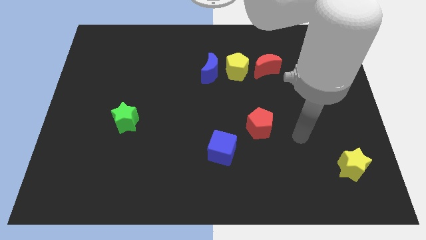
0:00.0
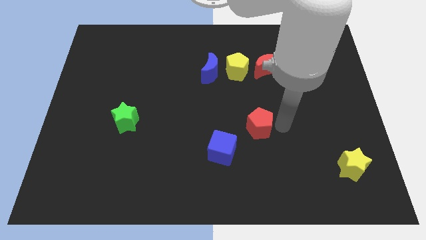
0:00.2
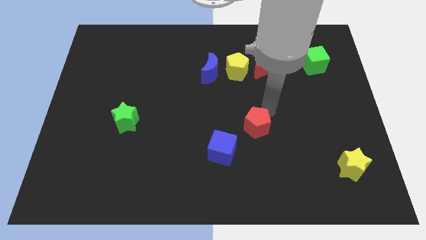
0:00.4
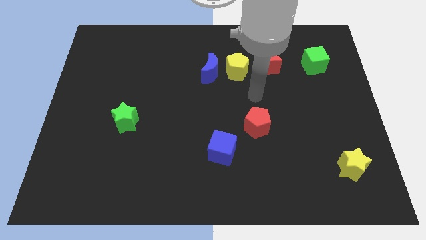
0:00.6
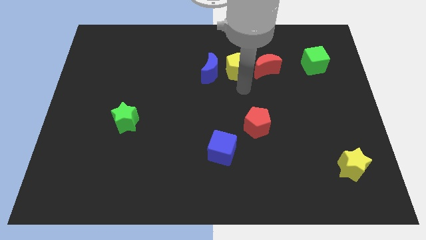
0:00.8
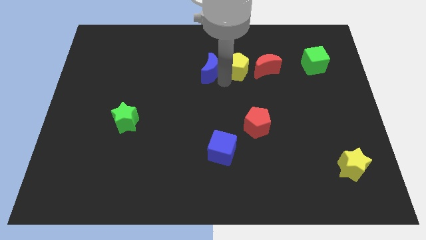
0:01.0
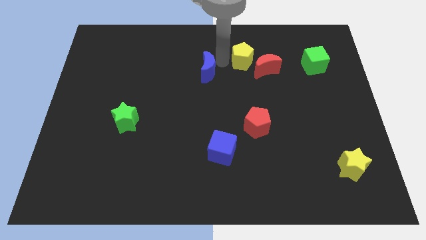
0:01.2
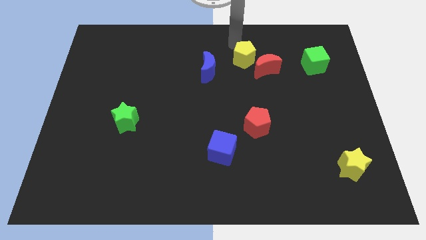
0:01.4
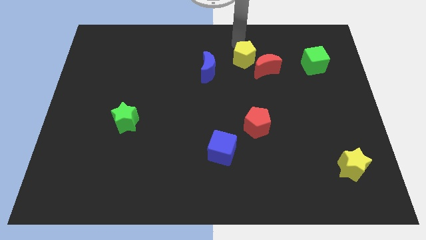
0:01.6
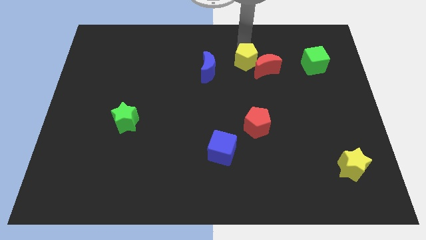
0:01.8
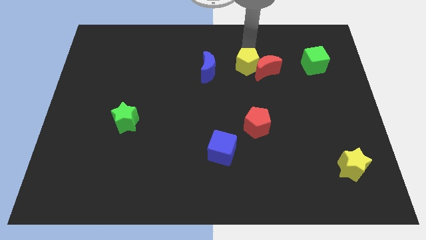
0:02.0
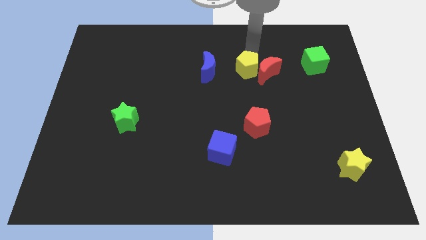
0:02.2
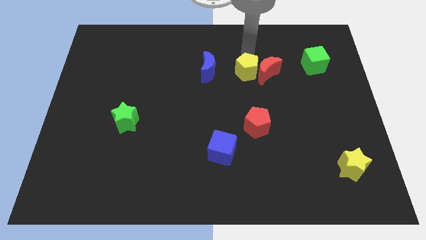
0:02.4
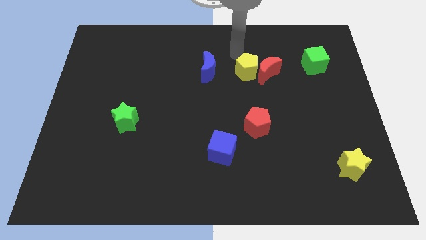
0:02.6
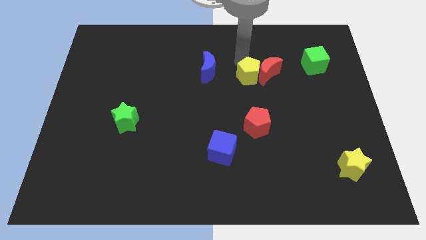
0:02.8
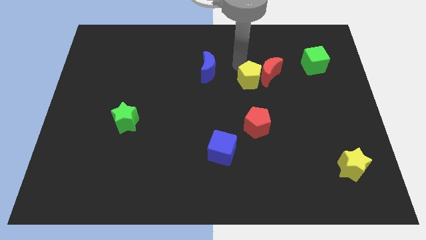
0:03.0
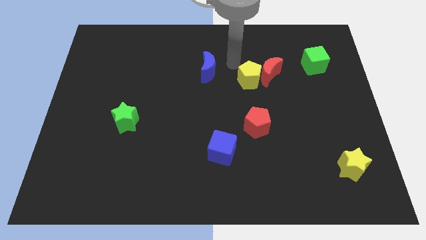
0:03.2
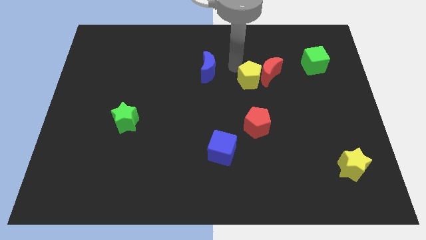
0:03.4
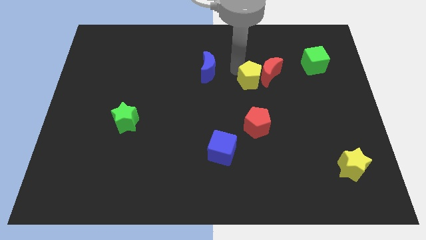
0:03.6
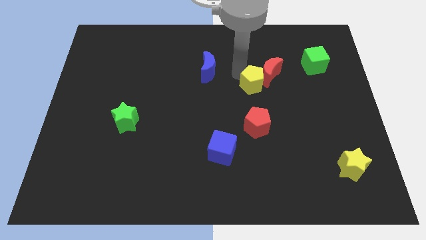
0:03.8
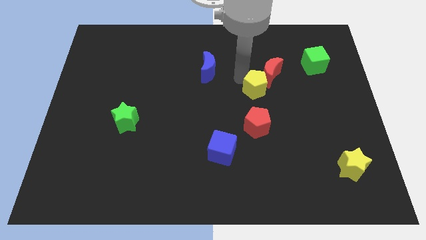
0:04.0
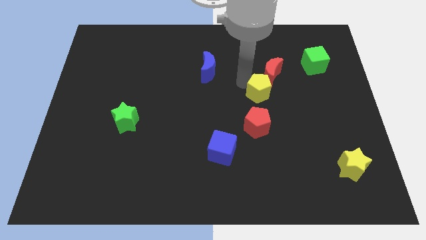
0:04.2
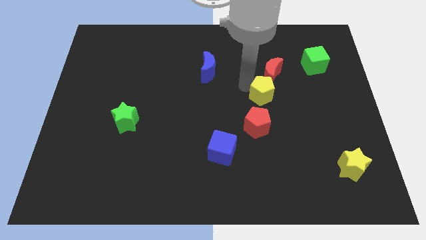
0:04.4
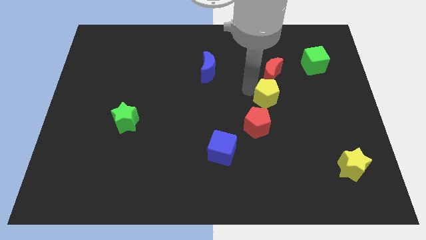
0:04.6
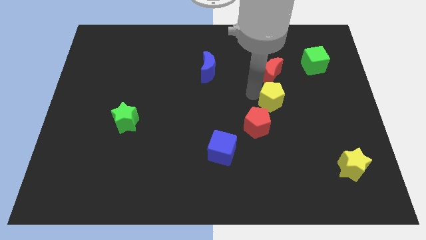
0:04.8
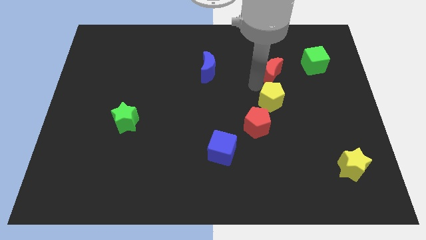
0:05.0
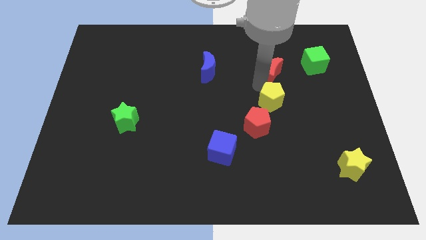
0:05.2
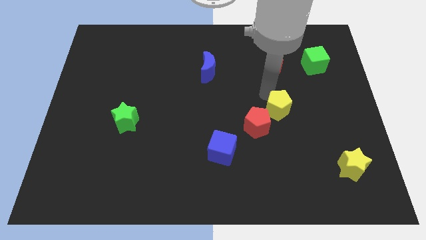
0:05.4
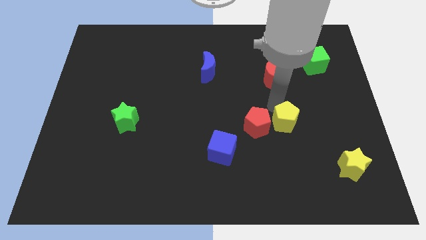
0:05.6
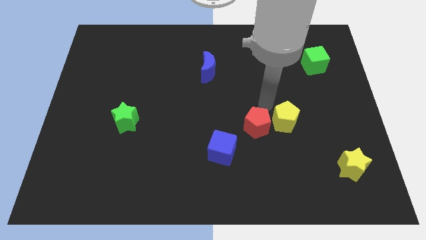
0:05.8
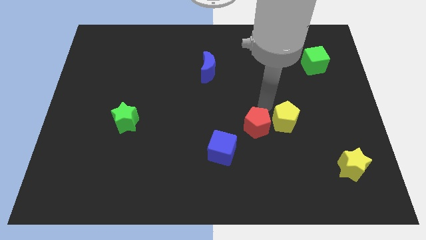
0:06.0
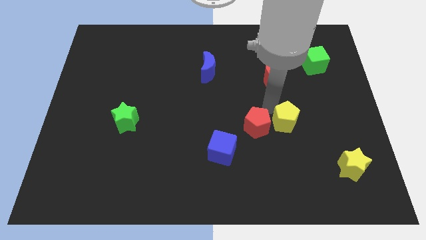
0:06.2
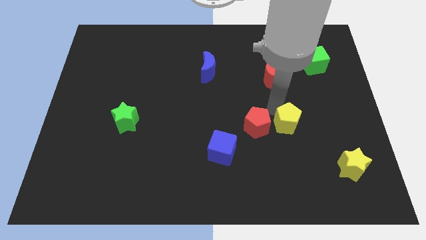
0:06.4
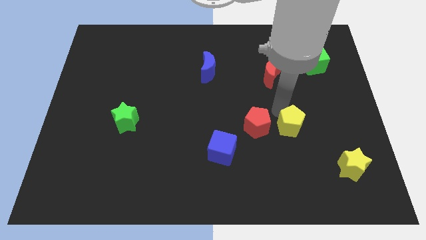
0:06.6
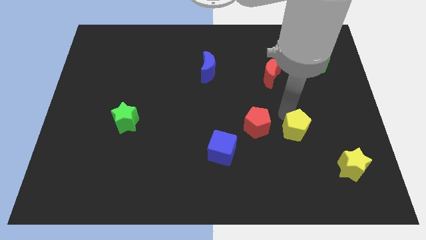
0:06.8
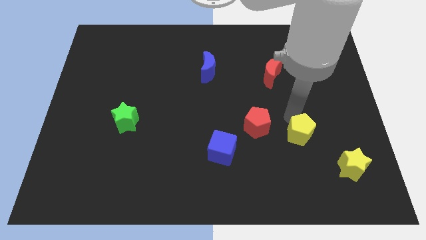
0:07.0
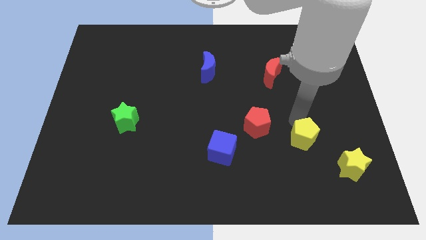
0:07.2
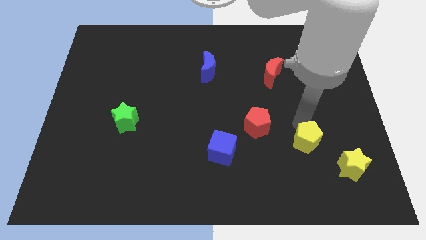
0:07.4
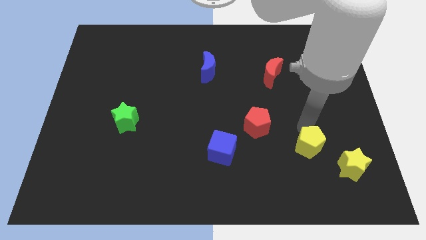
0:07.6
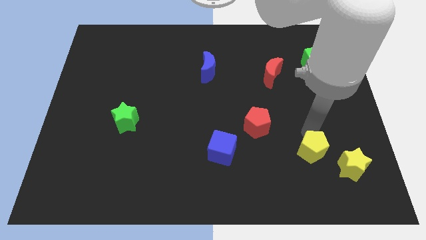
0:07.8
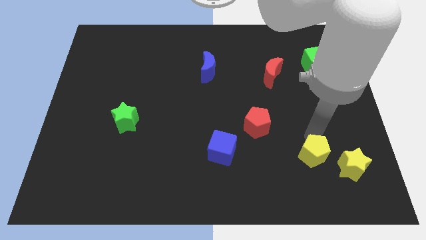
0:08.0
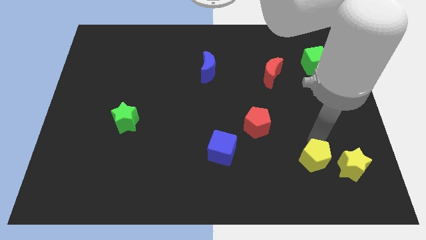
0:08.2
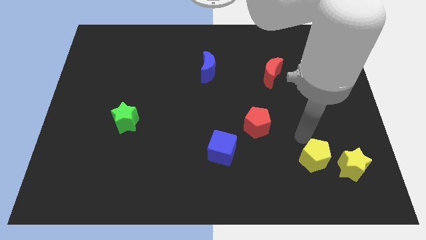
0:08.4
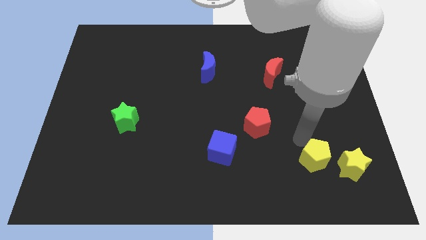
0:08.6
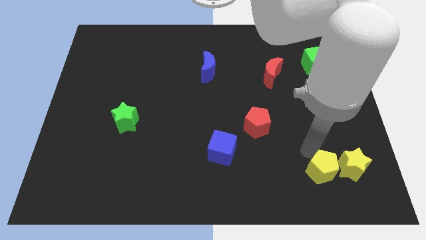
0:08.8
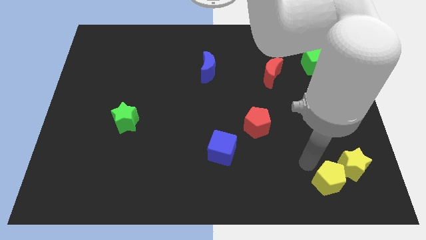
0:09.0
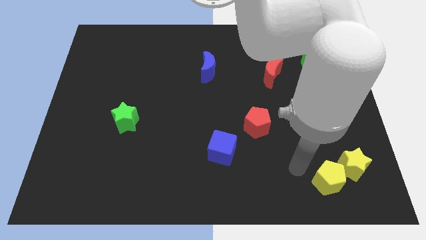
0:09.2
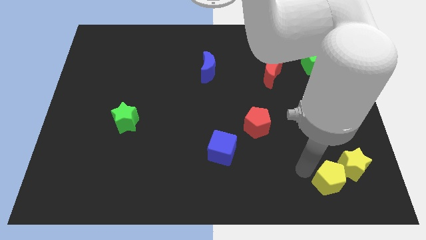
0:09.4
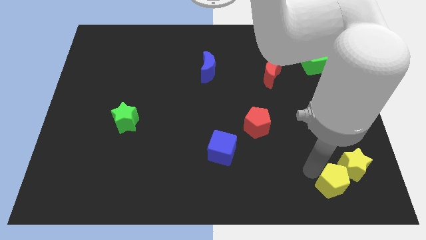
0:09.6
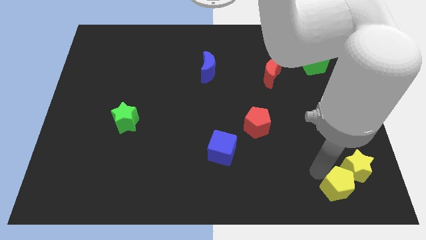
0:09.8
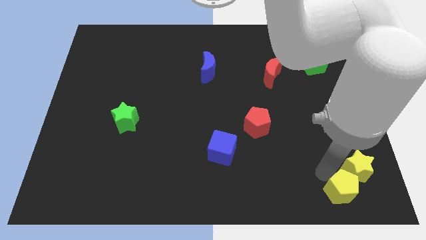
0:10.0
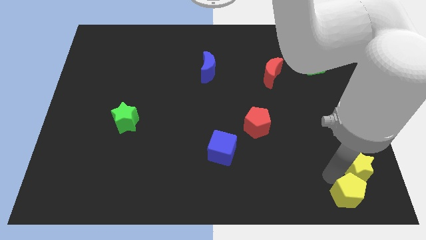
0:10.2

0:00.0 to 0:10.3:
move the yellow pentagon to the bottom right of the board

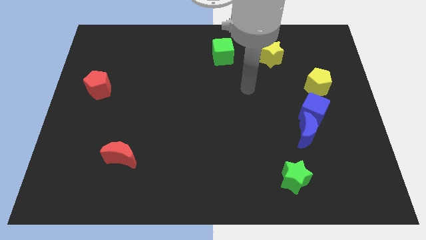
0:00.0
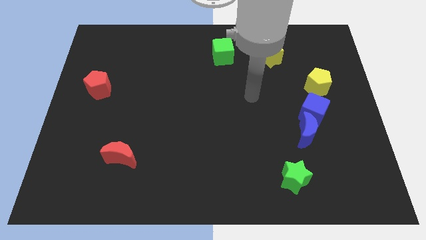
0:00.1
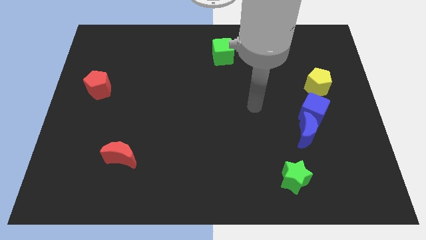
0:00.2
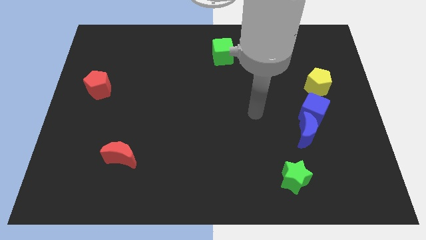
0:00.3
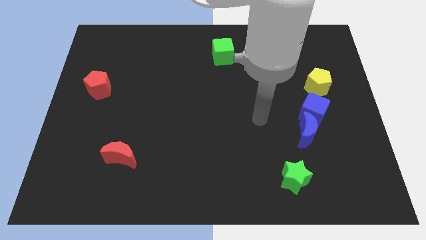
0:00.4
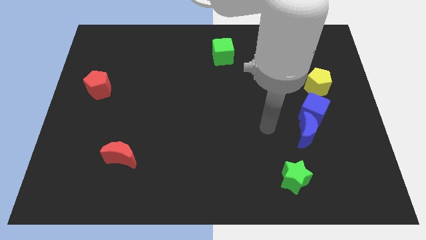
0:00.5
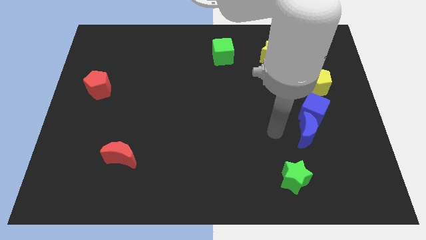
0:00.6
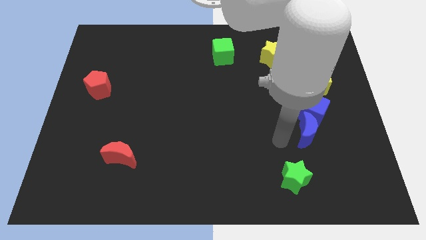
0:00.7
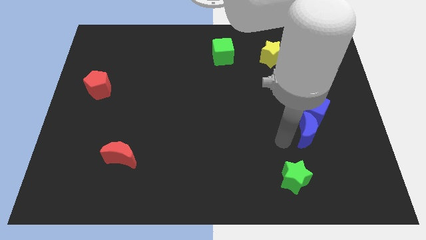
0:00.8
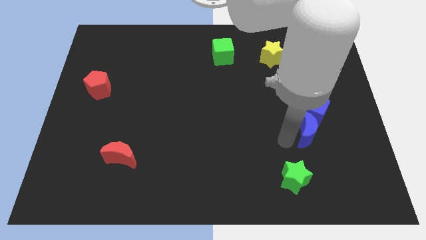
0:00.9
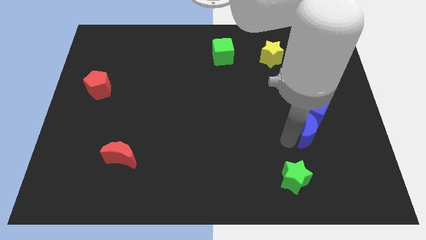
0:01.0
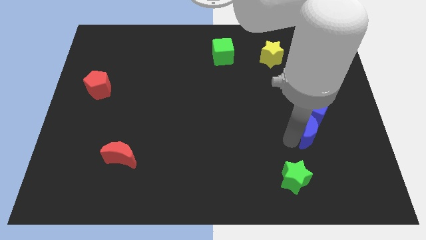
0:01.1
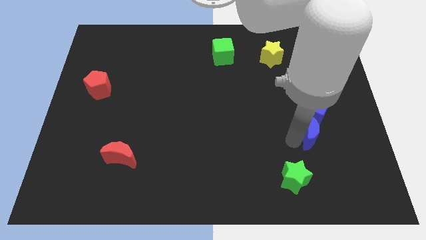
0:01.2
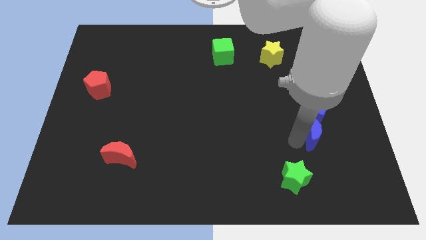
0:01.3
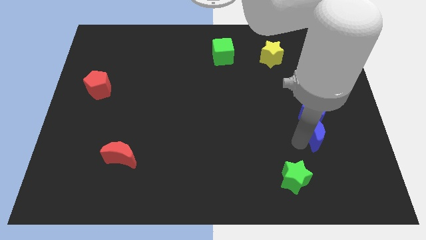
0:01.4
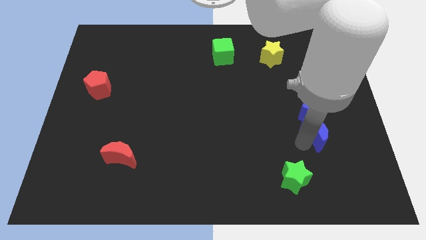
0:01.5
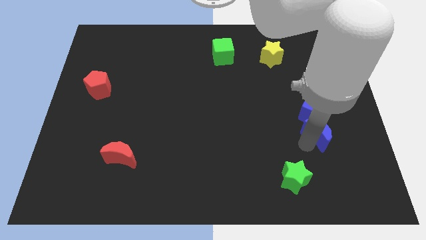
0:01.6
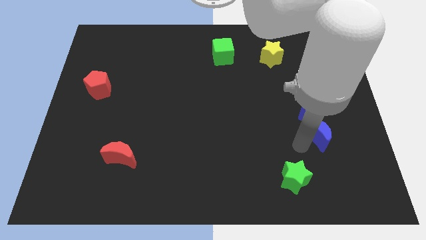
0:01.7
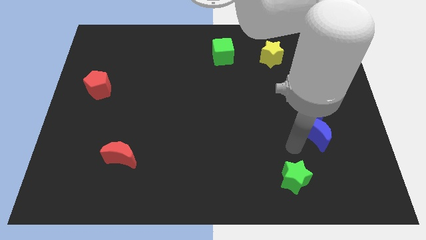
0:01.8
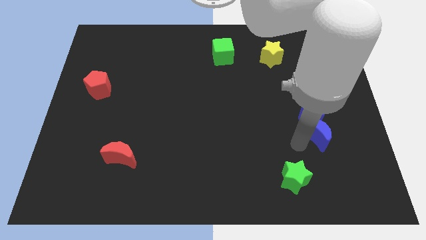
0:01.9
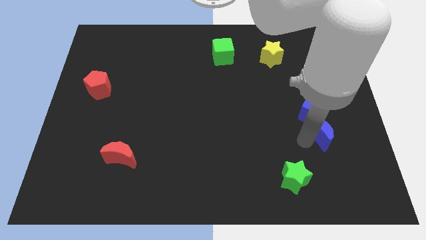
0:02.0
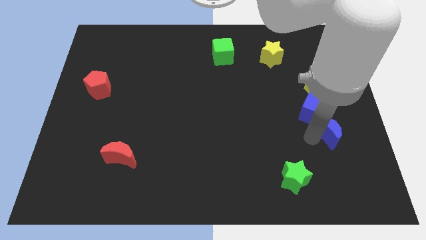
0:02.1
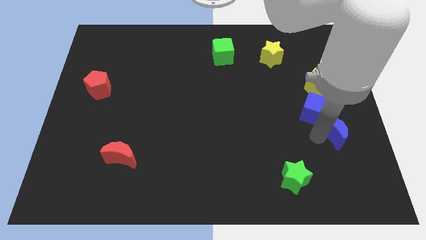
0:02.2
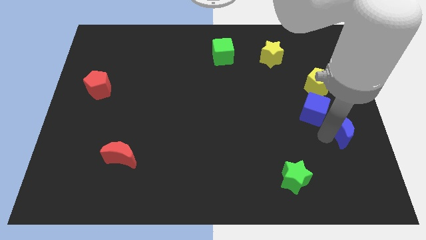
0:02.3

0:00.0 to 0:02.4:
move the blue moon to the center right
